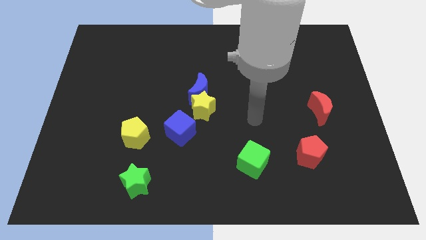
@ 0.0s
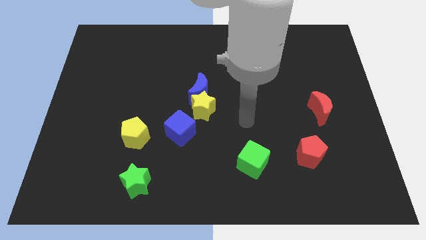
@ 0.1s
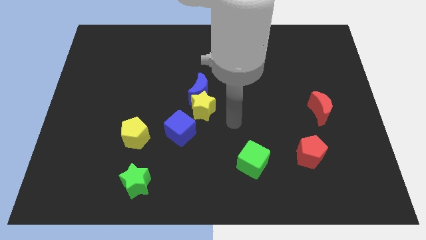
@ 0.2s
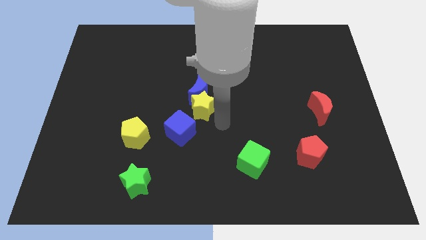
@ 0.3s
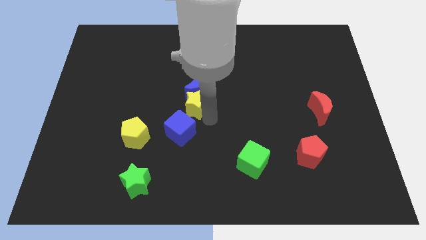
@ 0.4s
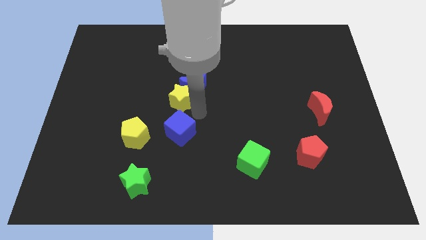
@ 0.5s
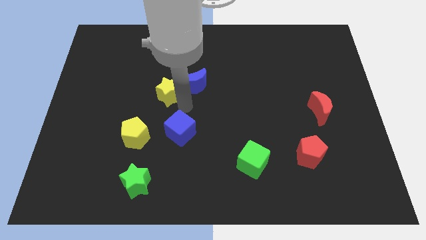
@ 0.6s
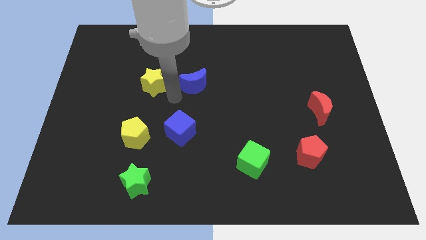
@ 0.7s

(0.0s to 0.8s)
pull the blue moon apart from the yellow star

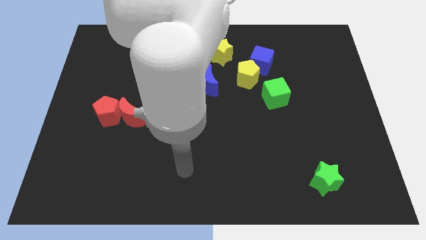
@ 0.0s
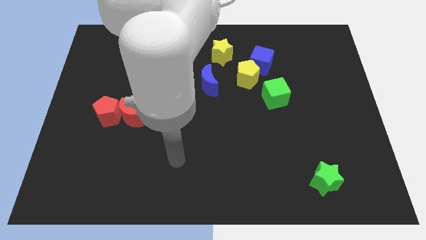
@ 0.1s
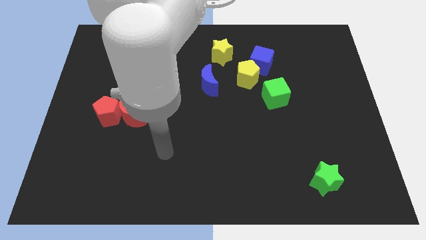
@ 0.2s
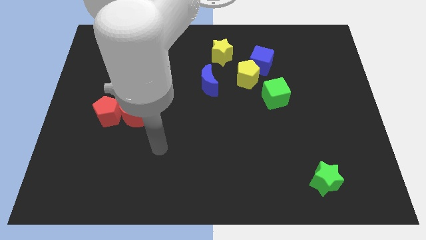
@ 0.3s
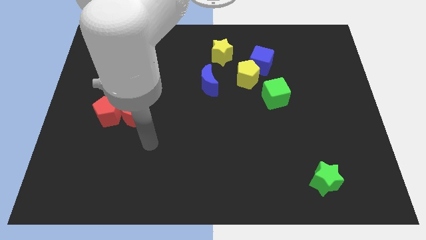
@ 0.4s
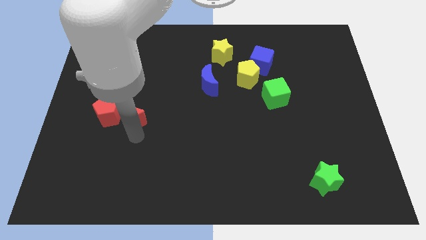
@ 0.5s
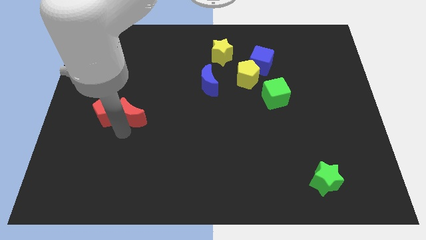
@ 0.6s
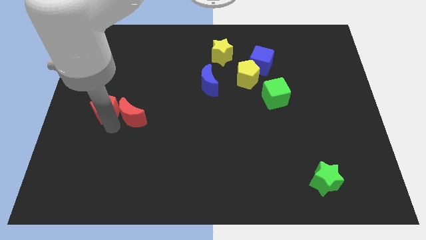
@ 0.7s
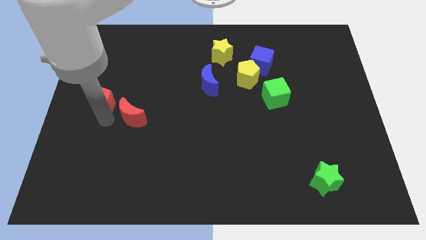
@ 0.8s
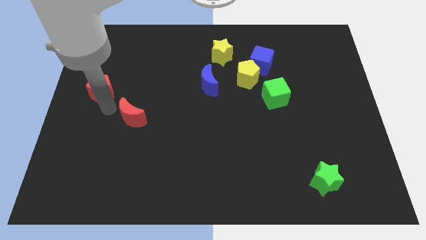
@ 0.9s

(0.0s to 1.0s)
pull the red moon apart from the red pentagon

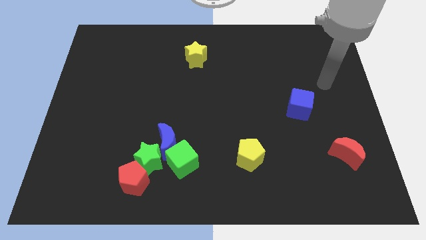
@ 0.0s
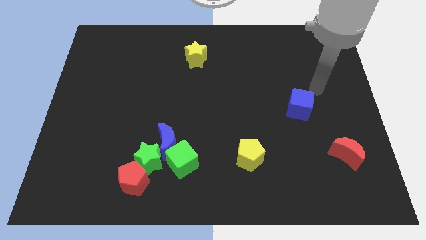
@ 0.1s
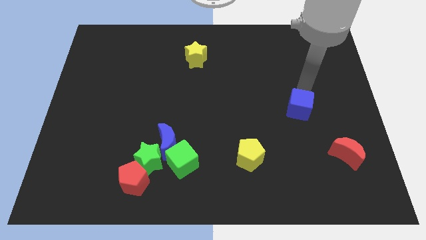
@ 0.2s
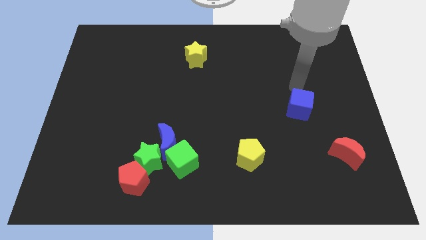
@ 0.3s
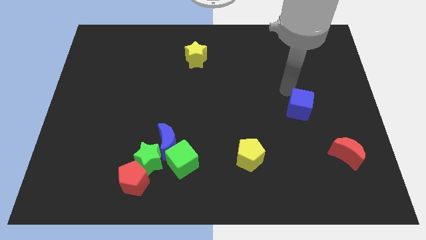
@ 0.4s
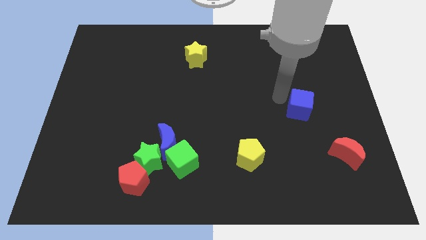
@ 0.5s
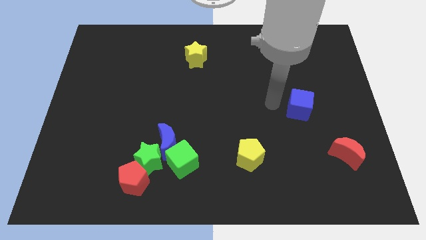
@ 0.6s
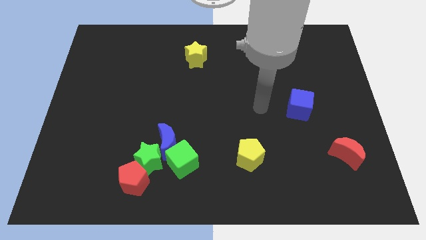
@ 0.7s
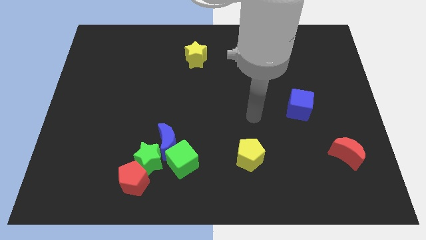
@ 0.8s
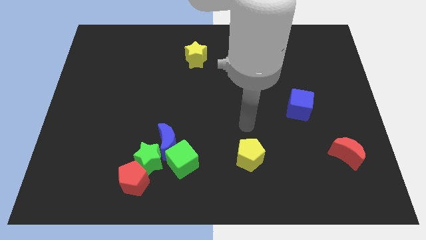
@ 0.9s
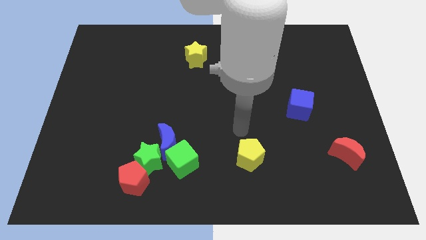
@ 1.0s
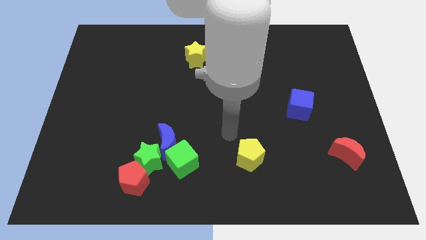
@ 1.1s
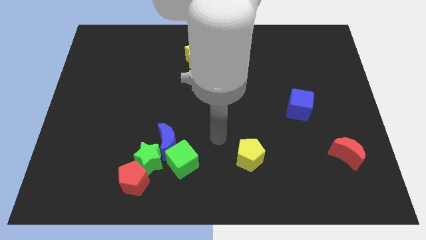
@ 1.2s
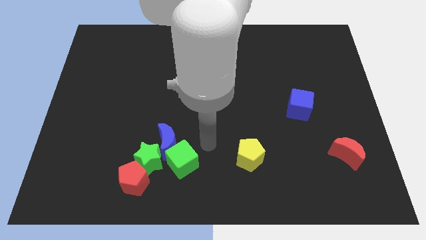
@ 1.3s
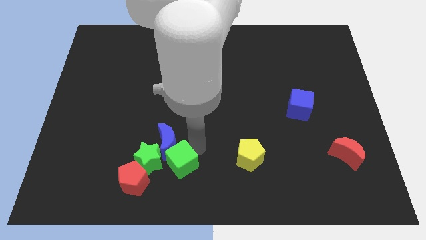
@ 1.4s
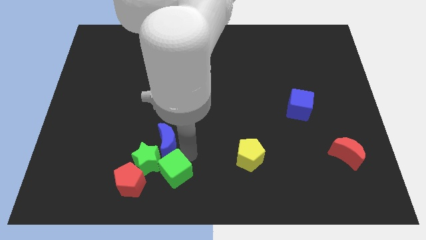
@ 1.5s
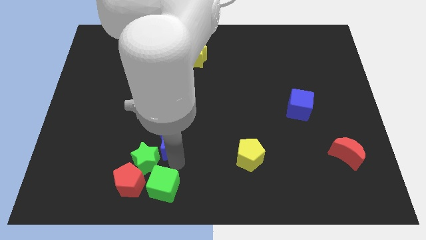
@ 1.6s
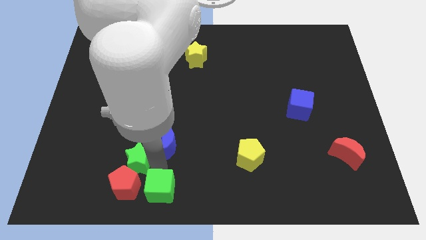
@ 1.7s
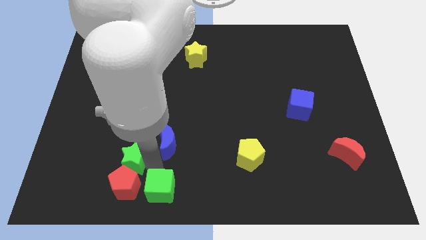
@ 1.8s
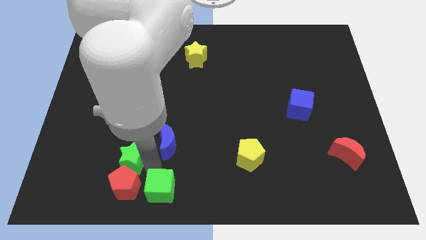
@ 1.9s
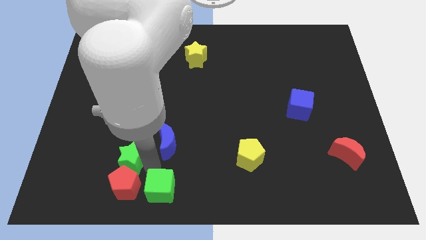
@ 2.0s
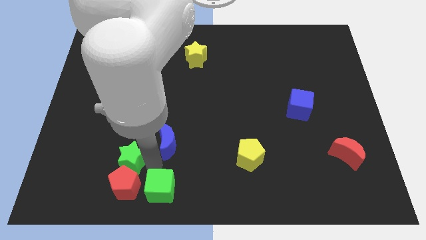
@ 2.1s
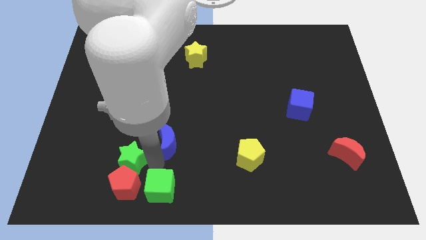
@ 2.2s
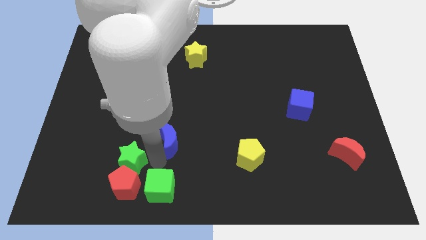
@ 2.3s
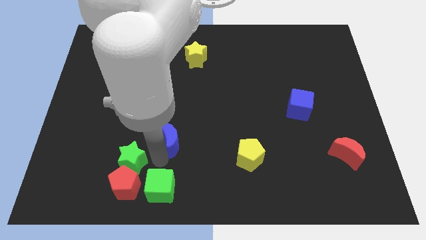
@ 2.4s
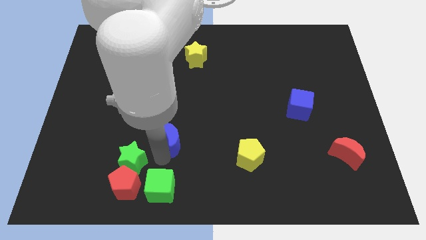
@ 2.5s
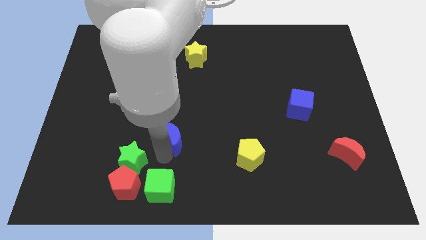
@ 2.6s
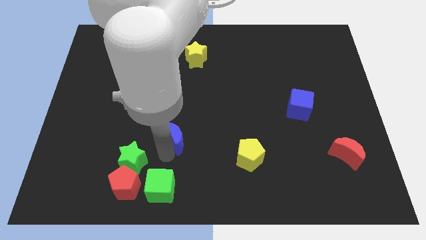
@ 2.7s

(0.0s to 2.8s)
move the blue moon away from the green cube and green star

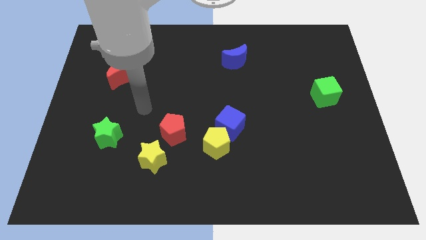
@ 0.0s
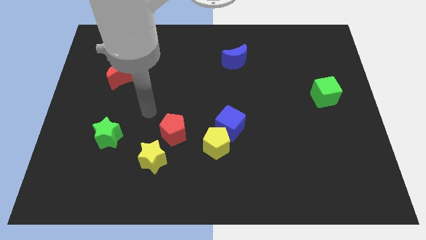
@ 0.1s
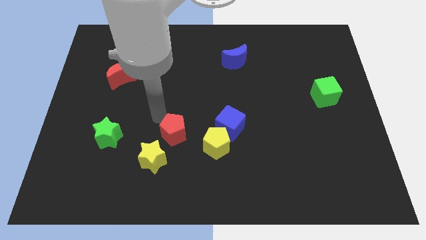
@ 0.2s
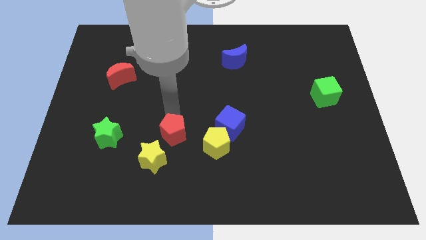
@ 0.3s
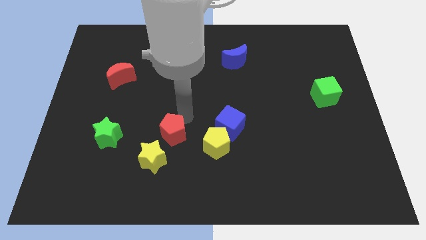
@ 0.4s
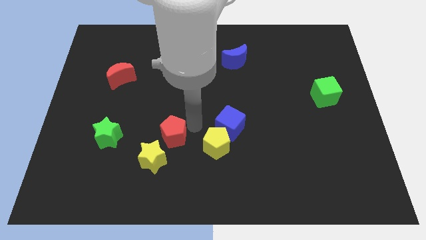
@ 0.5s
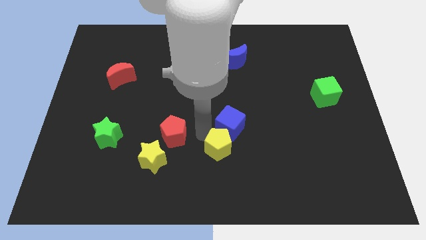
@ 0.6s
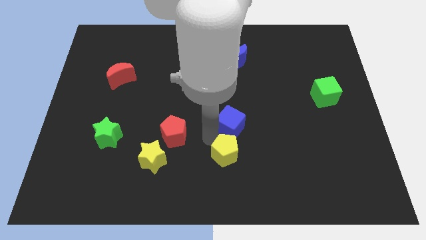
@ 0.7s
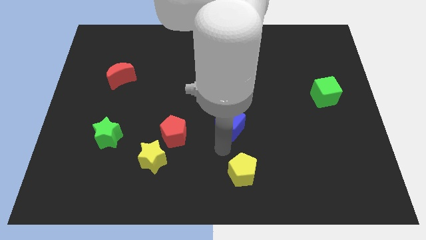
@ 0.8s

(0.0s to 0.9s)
pull the blue cube apart from the yellow pentagon

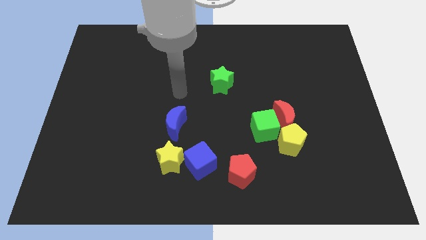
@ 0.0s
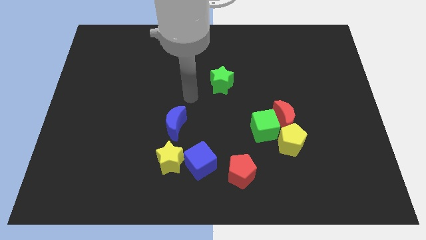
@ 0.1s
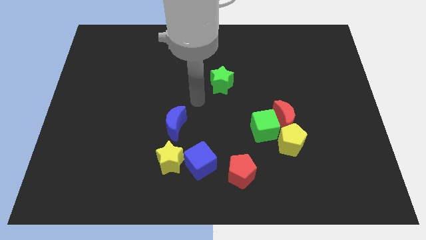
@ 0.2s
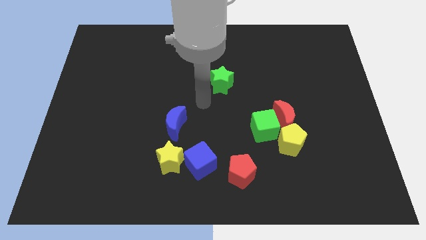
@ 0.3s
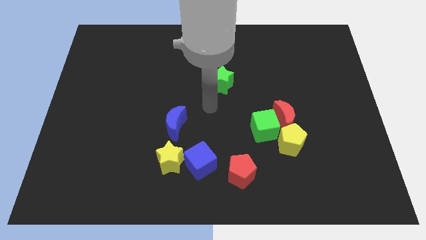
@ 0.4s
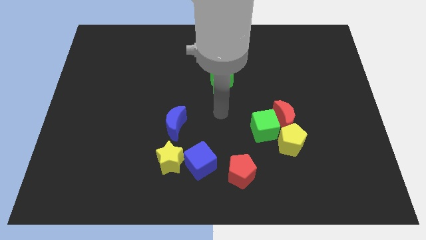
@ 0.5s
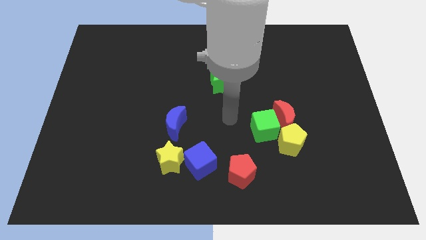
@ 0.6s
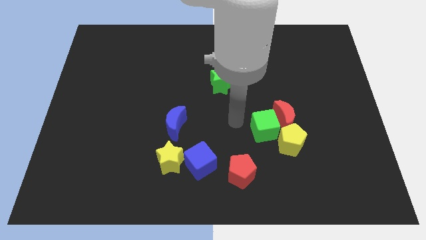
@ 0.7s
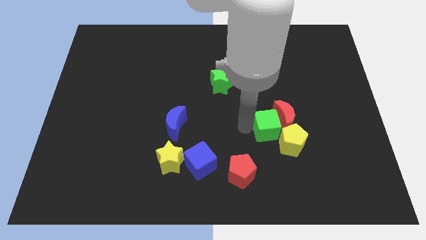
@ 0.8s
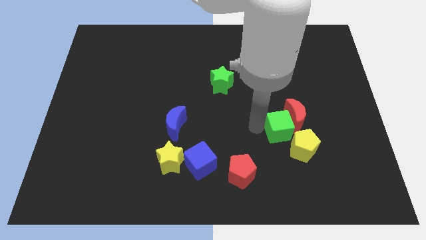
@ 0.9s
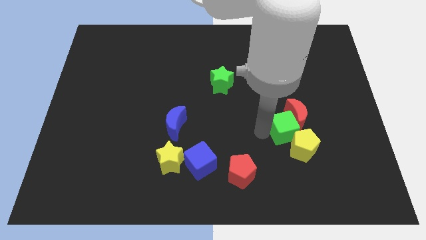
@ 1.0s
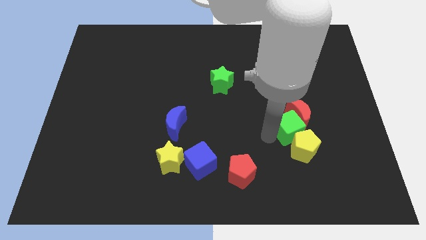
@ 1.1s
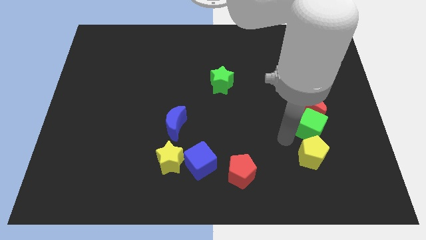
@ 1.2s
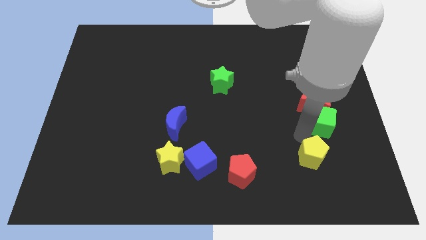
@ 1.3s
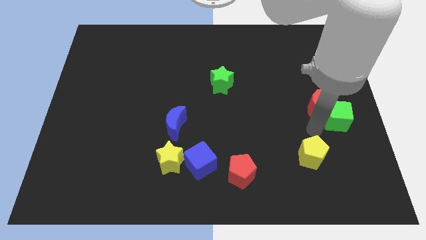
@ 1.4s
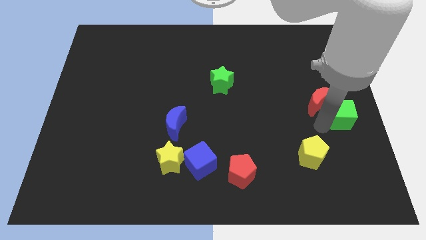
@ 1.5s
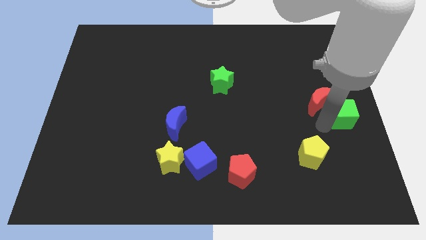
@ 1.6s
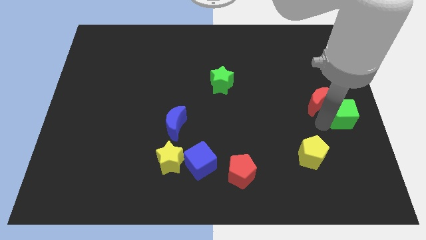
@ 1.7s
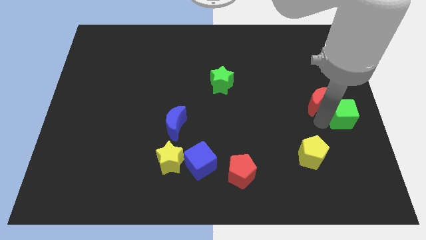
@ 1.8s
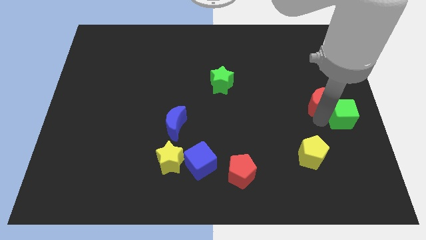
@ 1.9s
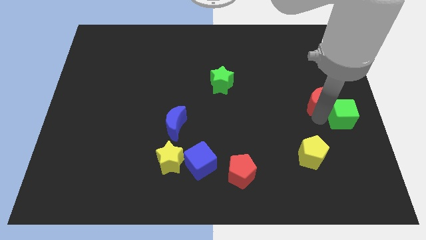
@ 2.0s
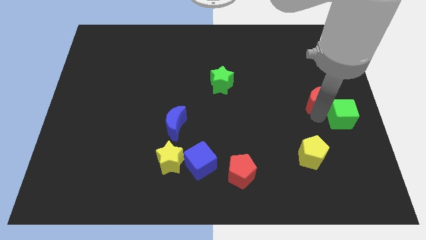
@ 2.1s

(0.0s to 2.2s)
pull the red moon apart from the green cube and yellow pentagon

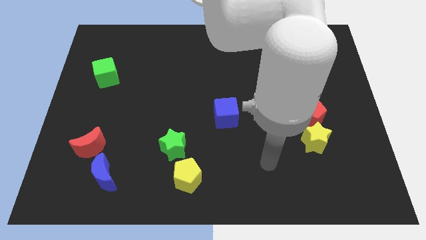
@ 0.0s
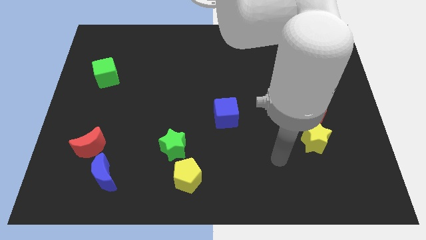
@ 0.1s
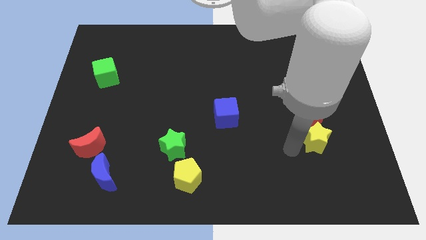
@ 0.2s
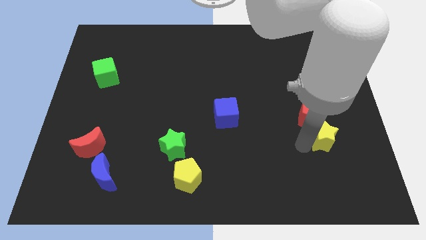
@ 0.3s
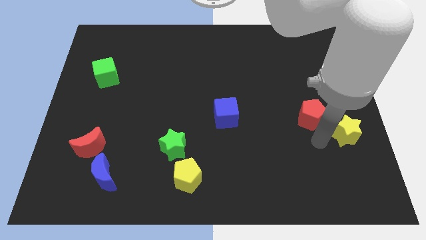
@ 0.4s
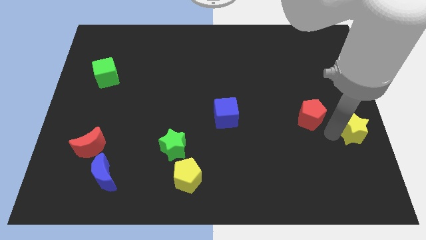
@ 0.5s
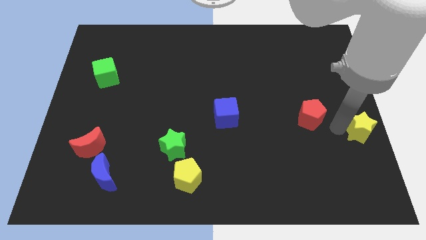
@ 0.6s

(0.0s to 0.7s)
pull the red pentagon apart from the yellow star

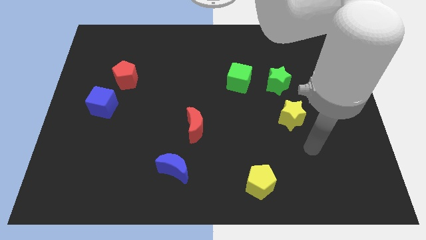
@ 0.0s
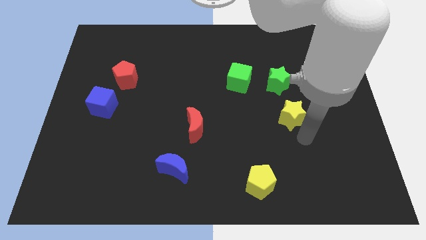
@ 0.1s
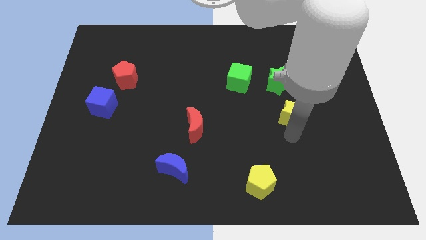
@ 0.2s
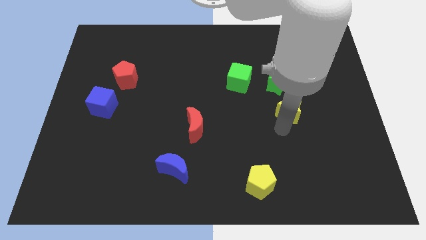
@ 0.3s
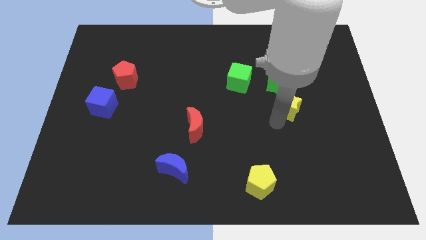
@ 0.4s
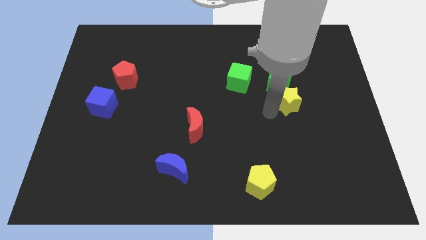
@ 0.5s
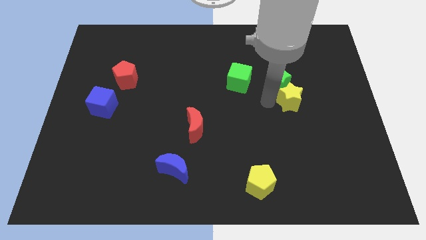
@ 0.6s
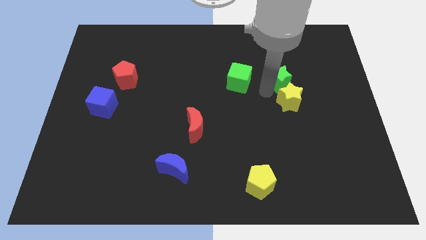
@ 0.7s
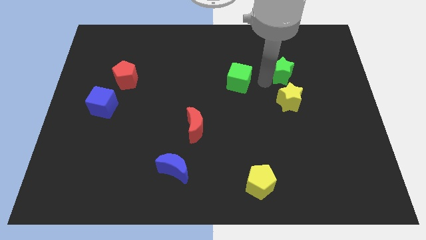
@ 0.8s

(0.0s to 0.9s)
separate the green cube from the green star
